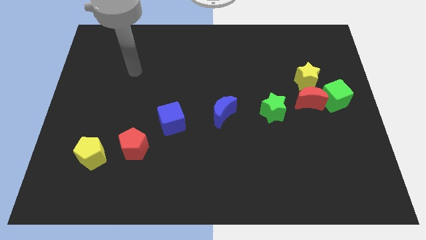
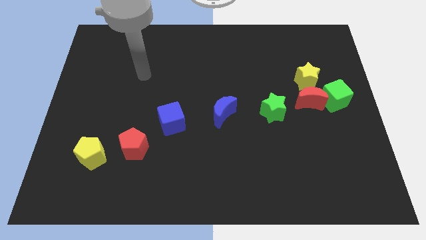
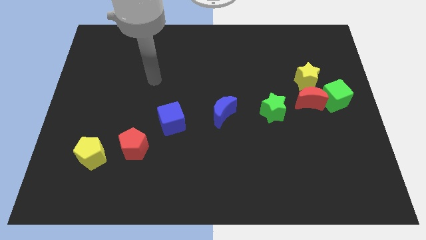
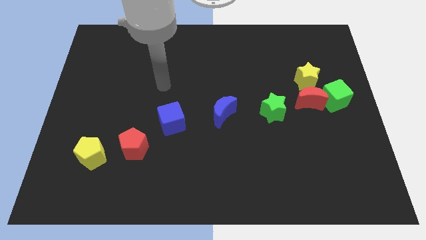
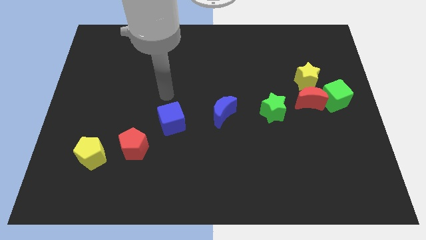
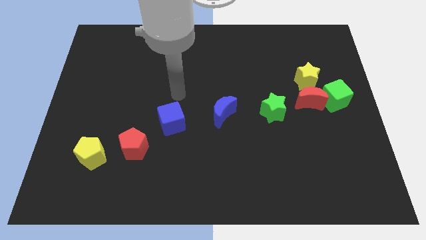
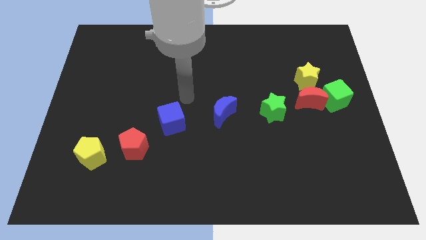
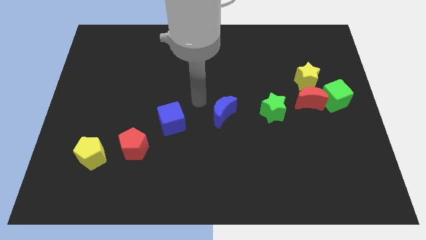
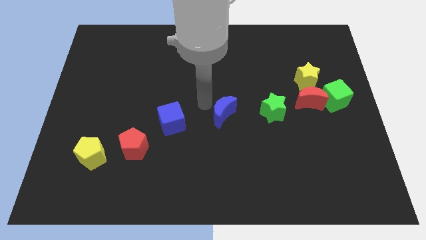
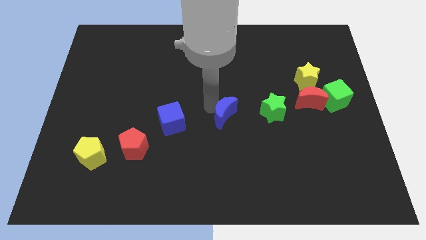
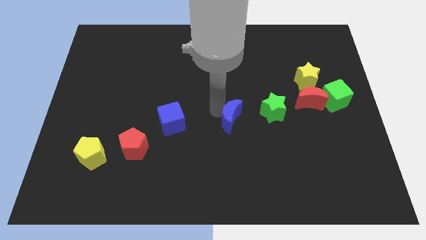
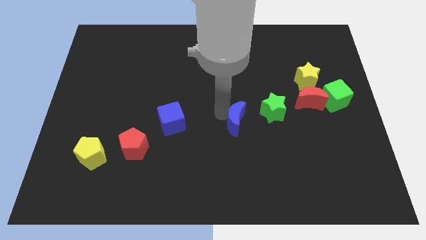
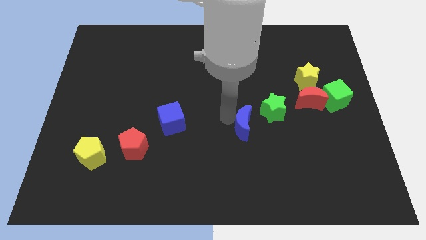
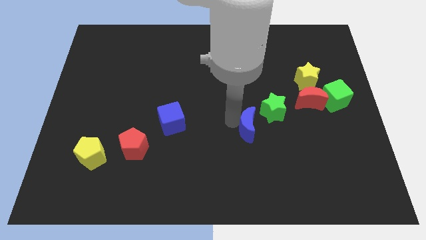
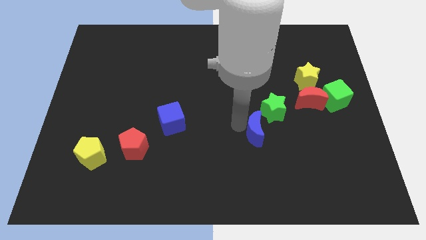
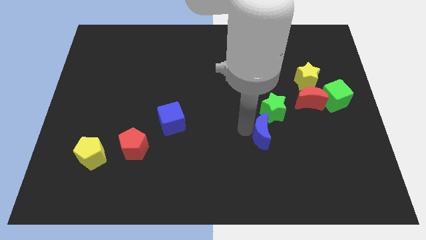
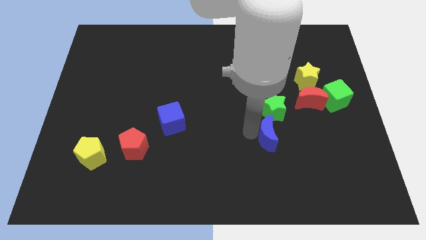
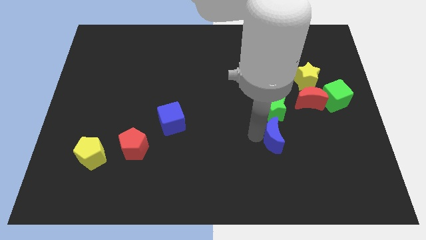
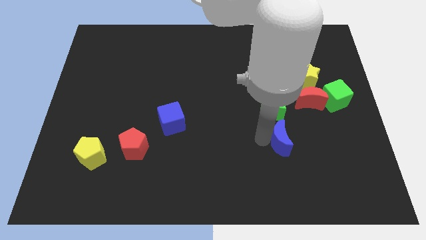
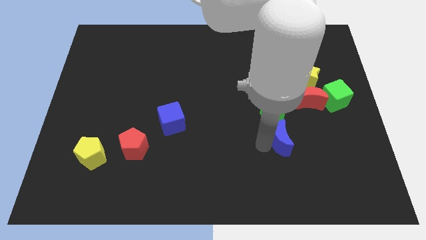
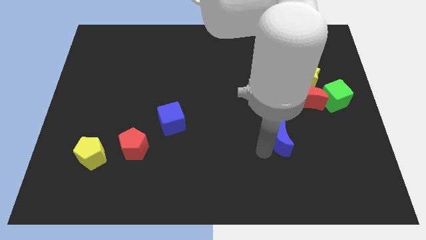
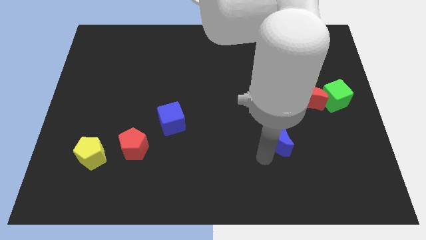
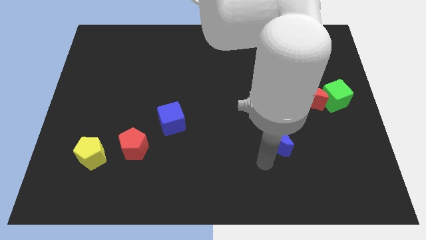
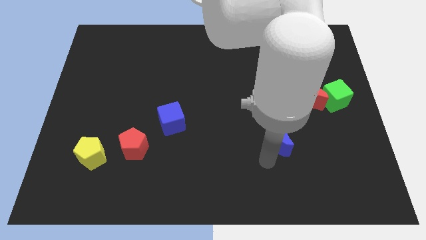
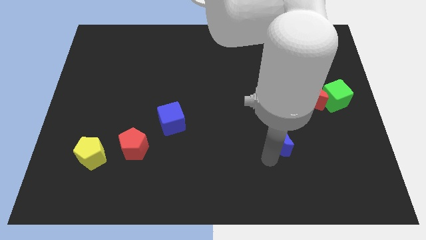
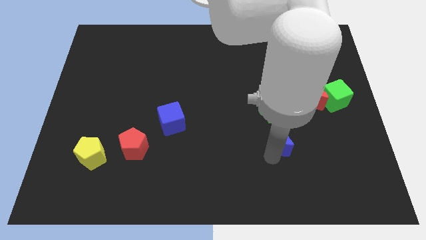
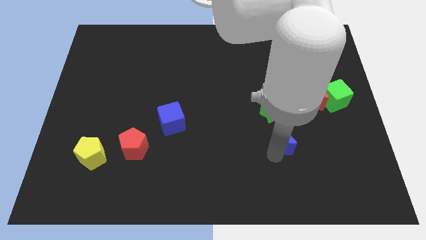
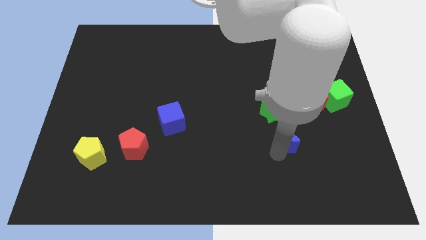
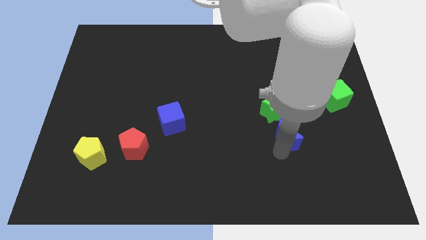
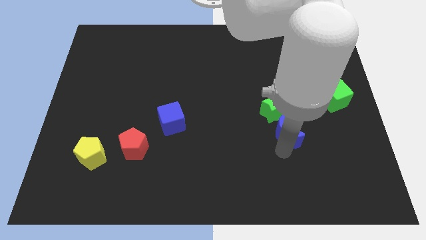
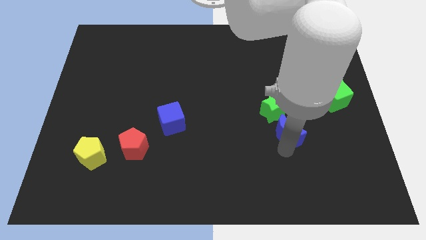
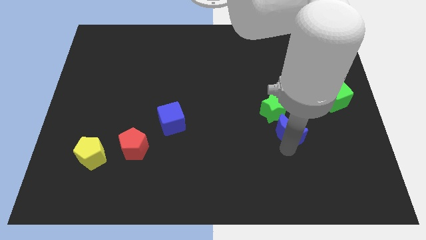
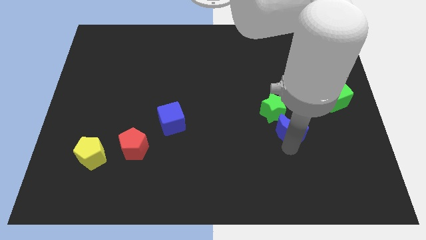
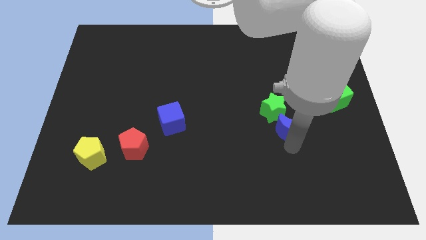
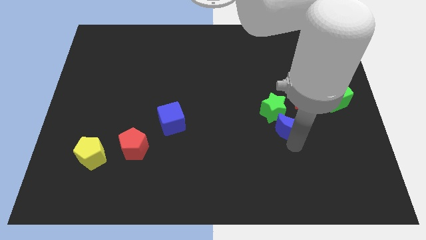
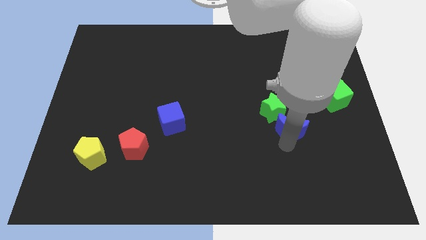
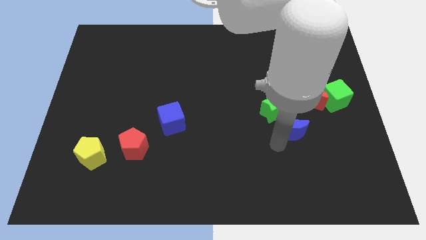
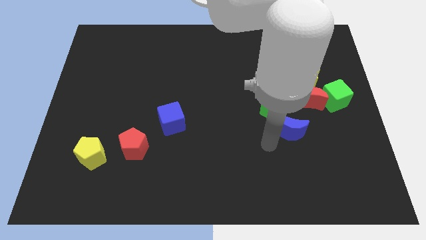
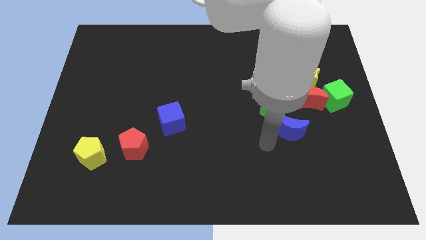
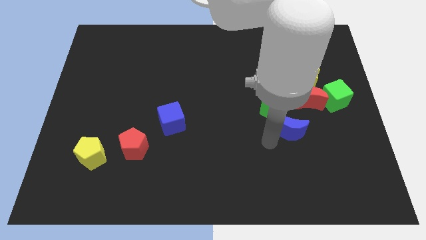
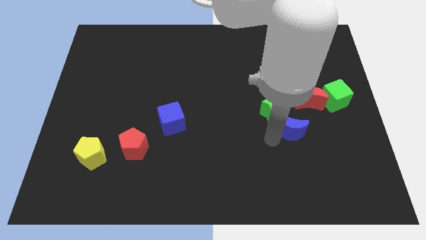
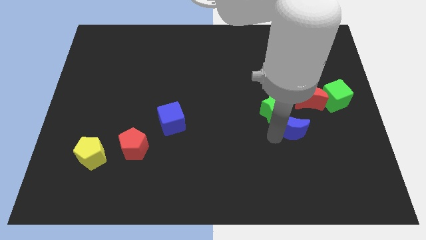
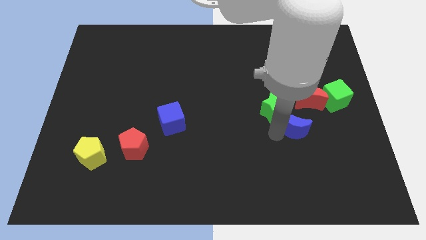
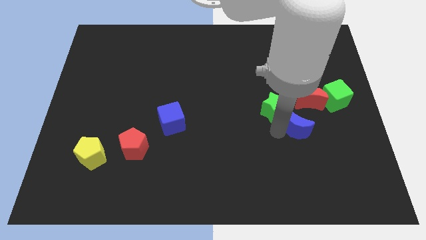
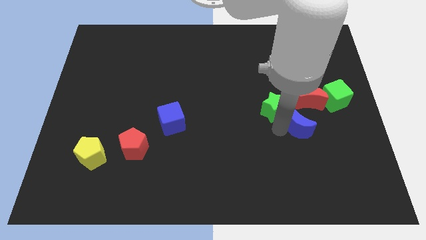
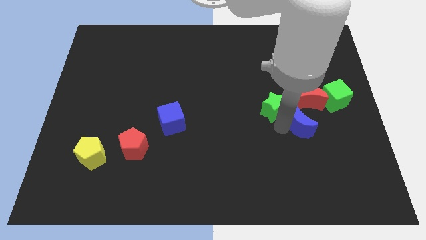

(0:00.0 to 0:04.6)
slide the blue moon to the bottom left side of the green cube

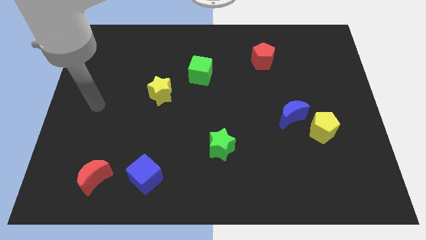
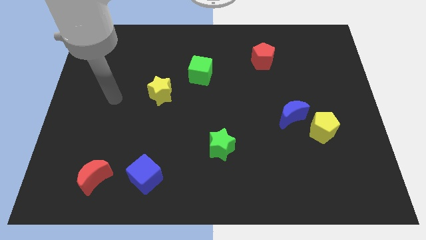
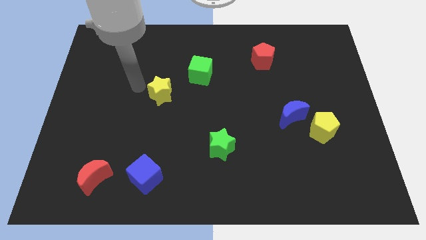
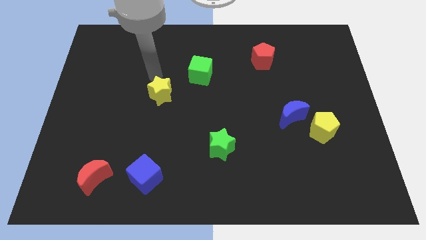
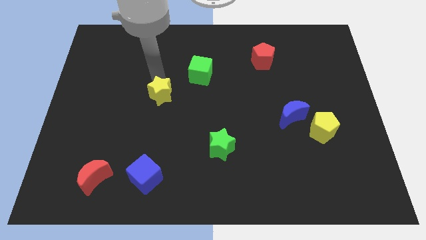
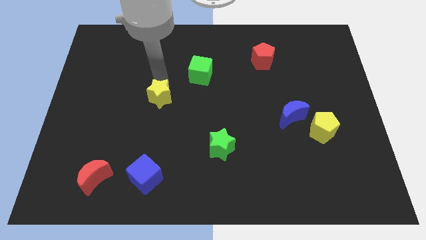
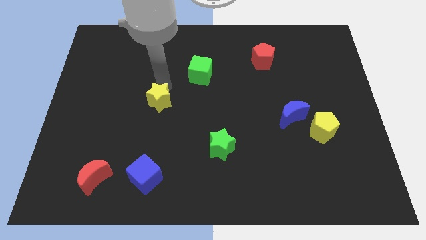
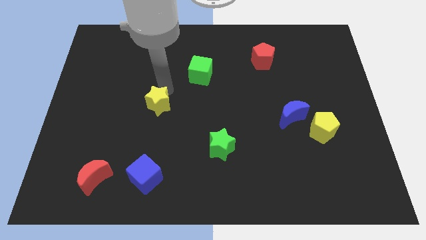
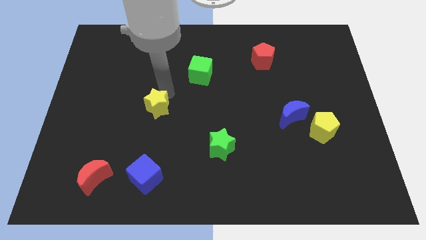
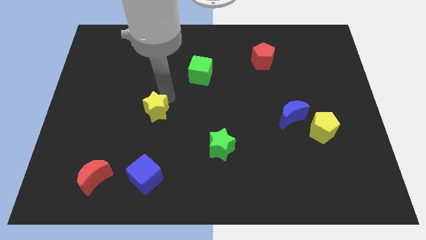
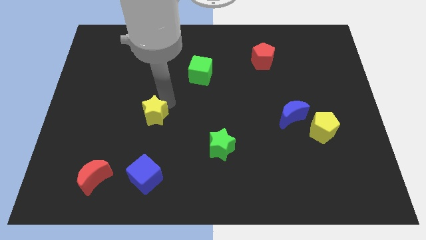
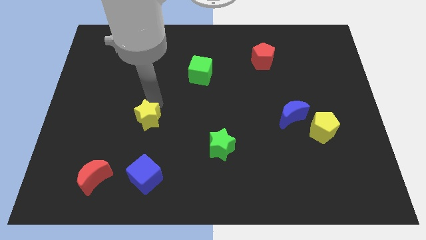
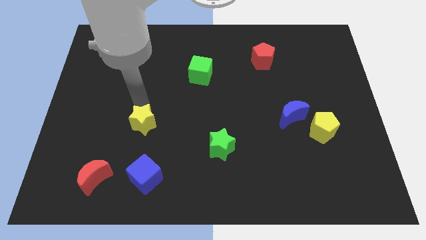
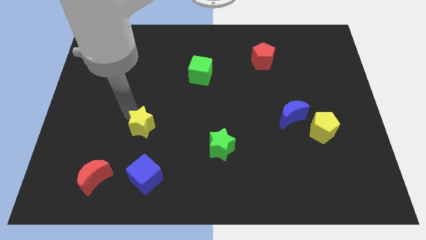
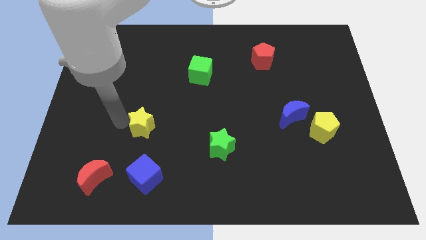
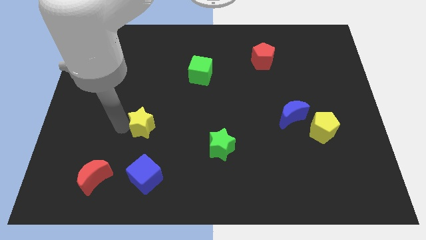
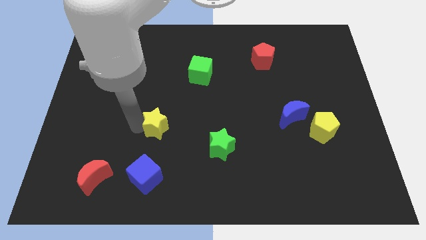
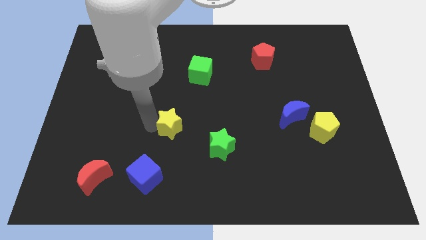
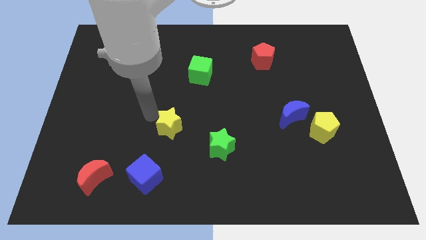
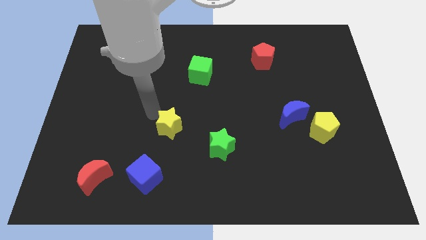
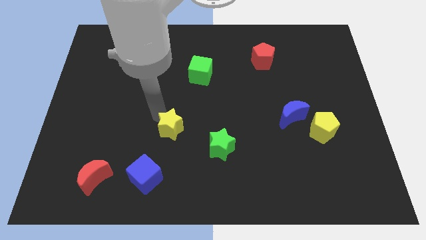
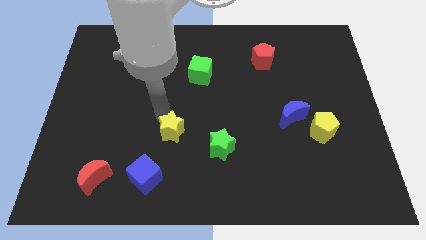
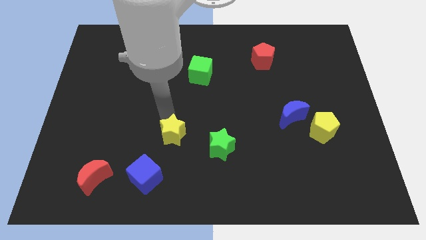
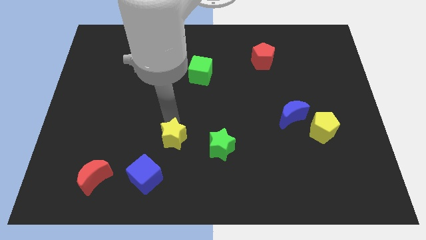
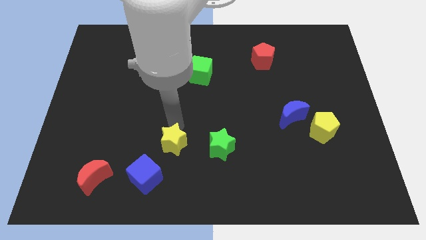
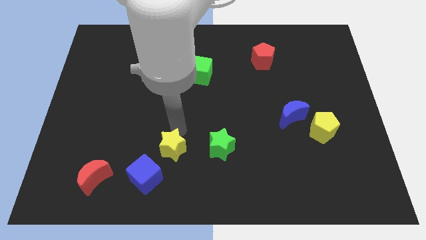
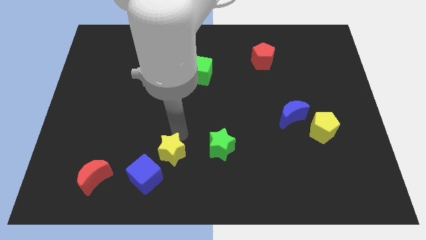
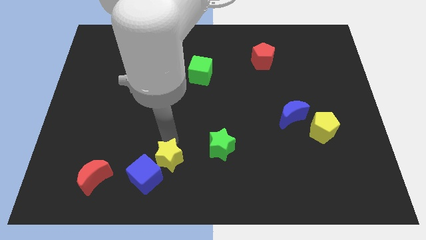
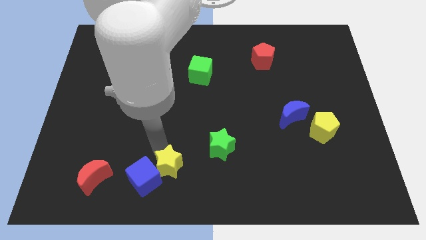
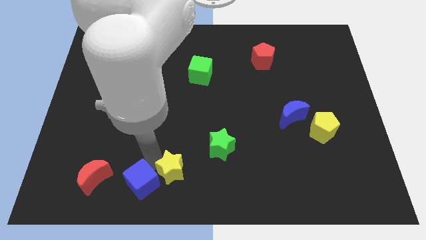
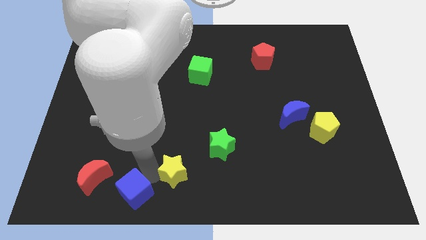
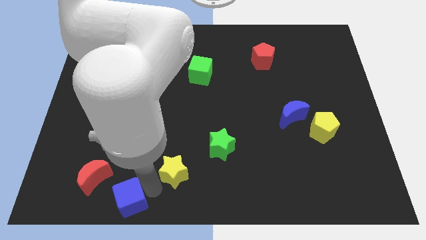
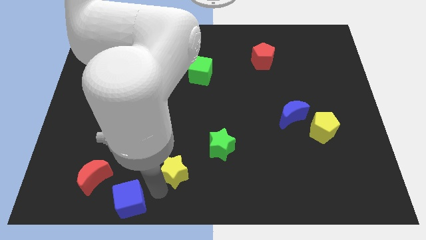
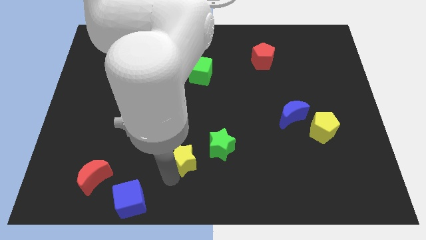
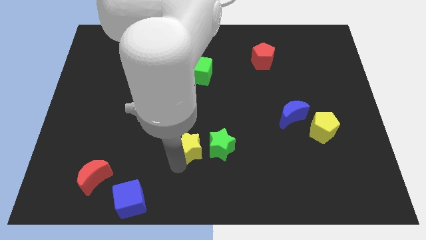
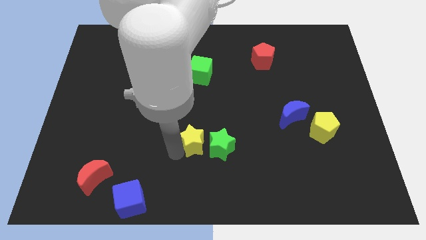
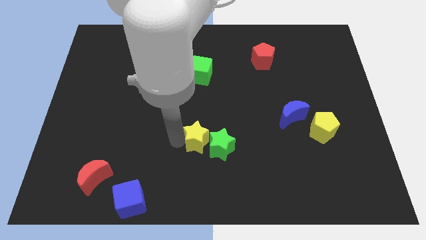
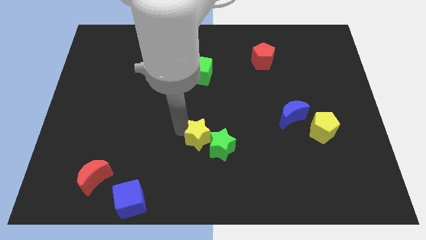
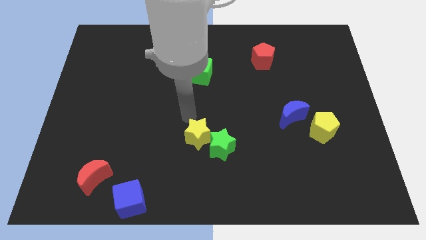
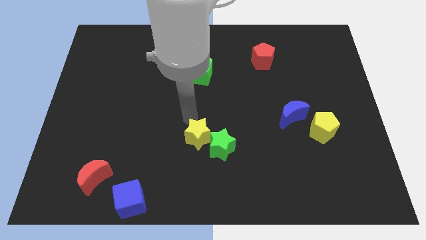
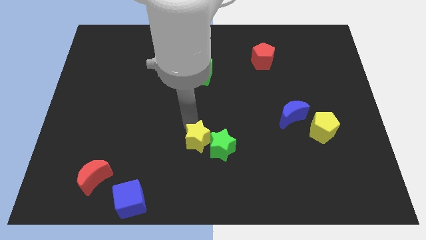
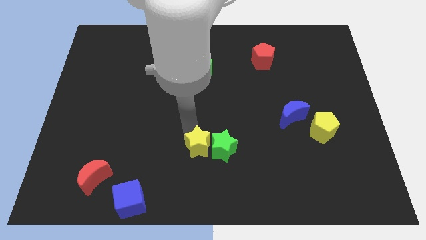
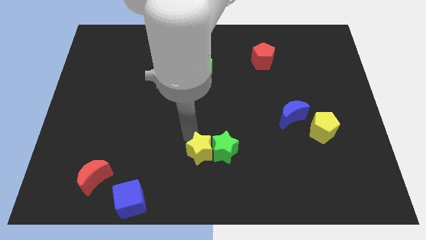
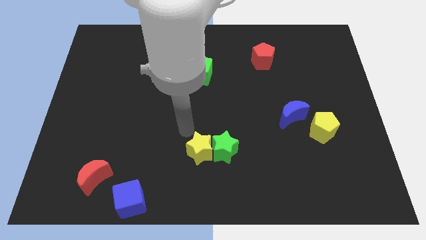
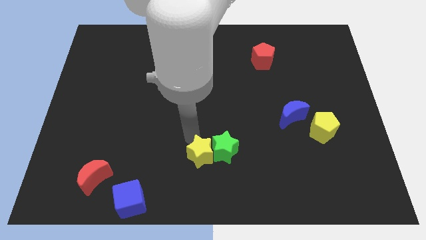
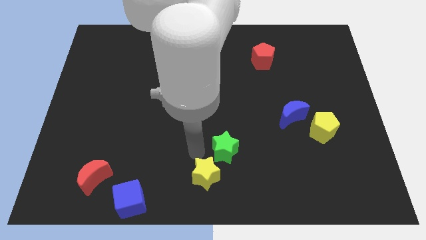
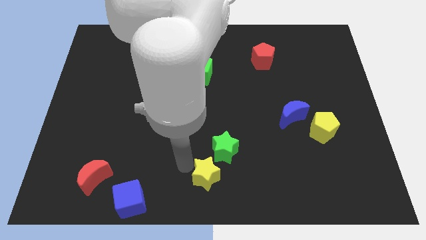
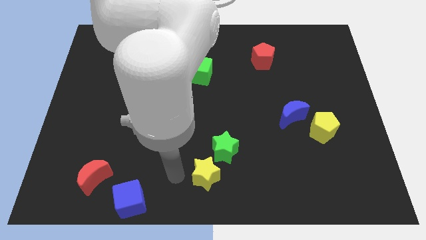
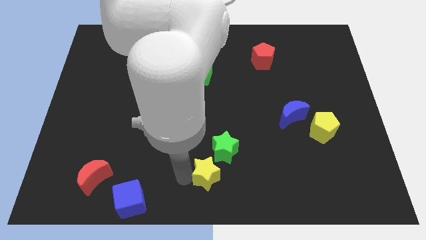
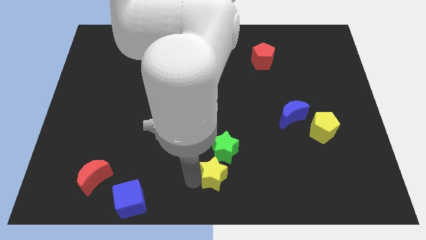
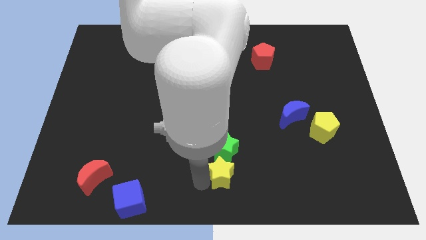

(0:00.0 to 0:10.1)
slide the yellow star to the bottom right side of the green star
